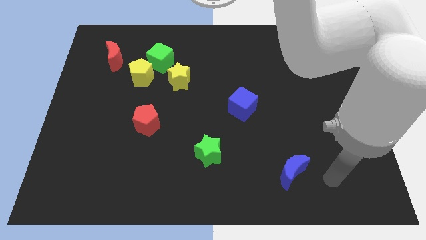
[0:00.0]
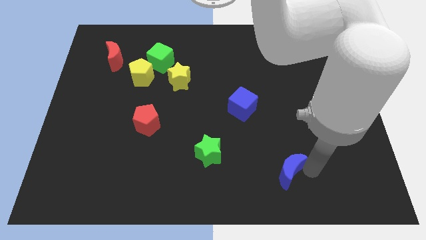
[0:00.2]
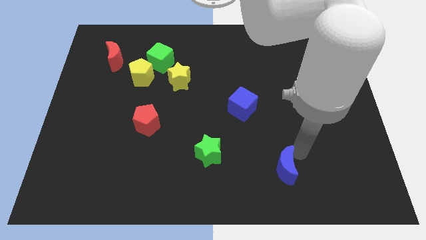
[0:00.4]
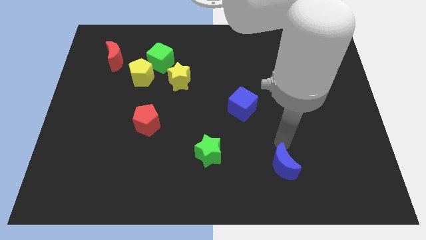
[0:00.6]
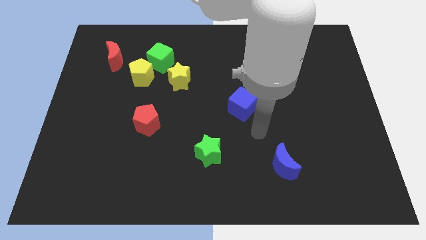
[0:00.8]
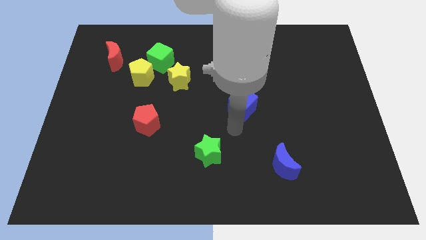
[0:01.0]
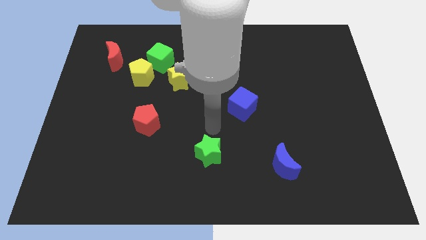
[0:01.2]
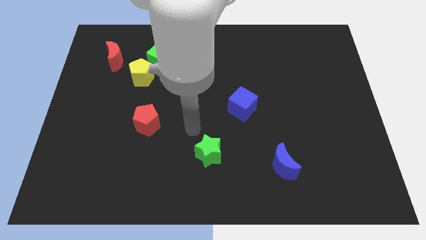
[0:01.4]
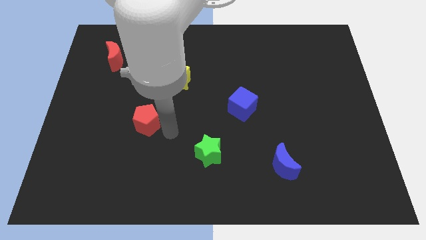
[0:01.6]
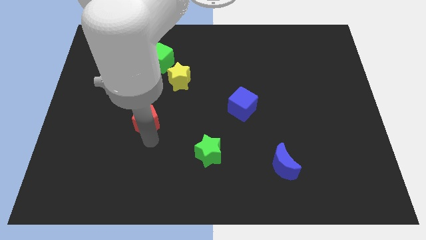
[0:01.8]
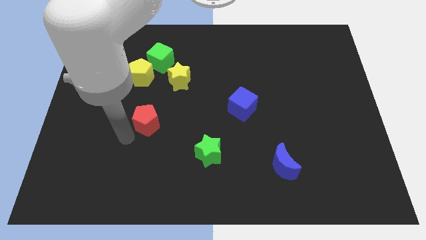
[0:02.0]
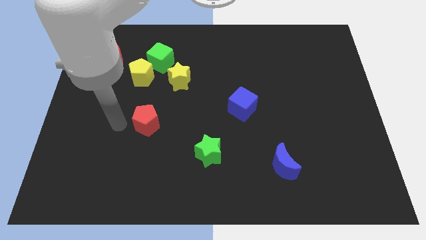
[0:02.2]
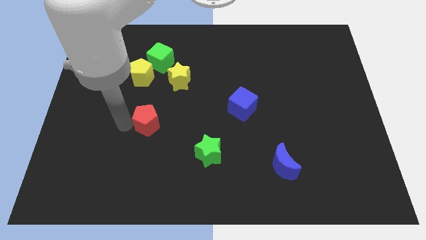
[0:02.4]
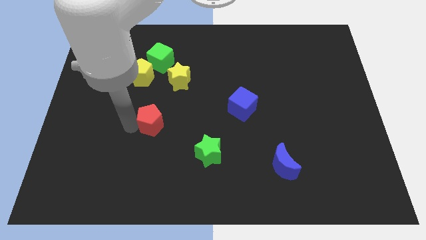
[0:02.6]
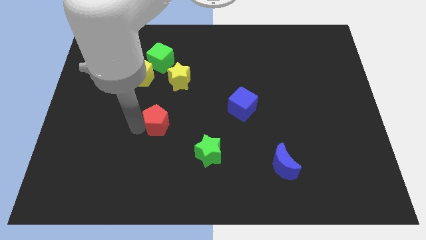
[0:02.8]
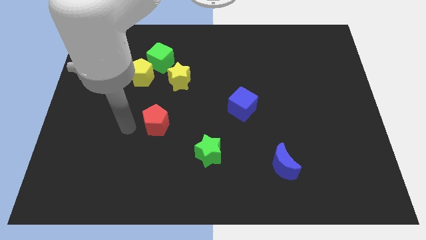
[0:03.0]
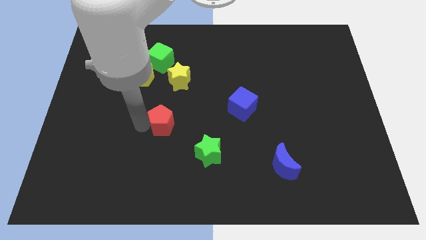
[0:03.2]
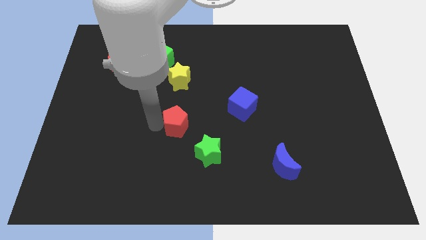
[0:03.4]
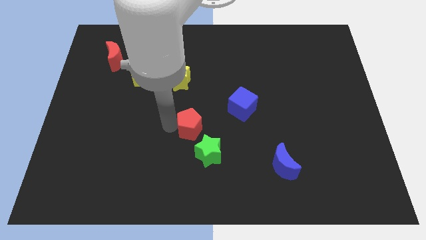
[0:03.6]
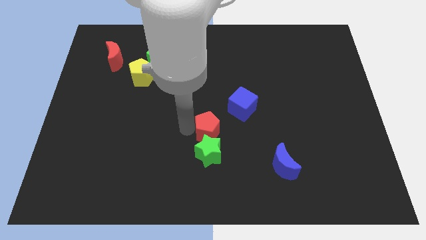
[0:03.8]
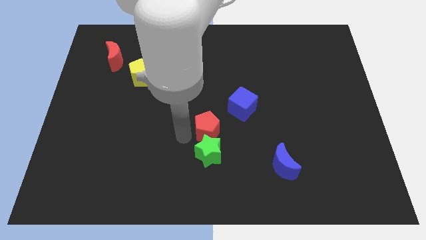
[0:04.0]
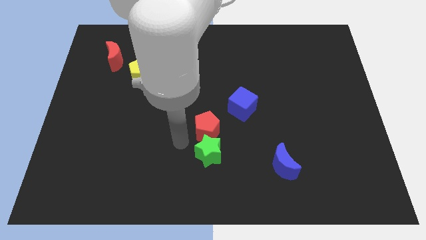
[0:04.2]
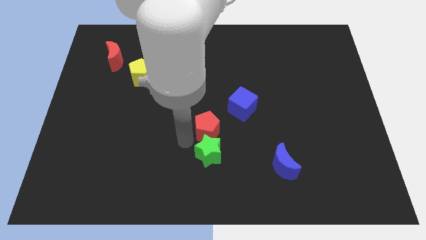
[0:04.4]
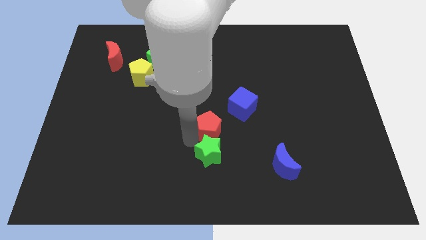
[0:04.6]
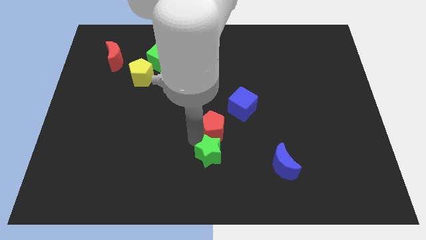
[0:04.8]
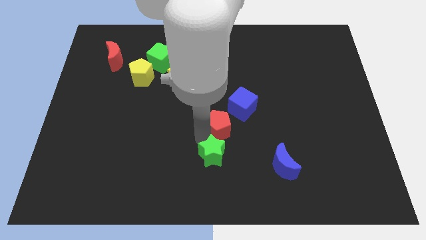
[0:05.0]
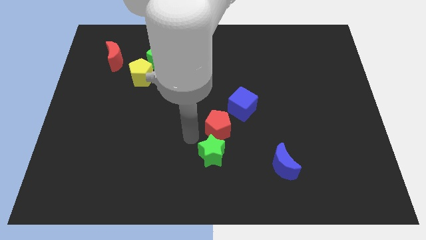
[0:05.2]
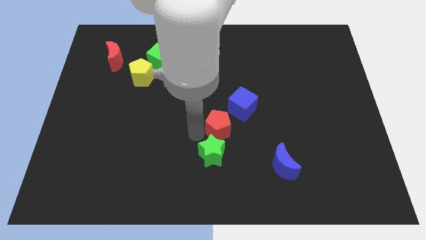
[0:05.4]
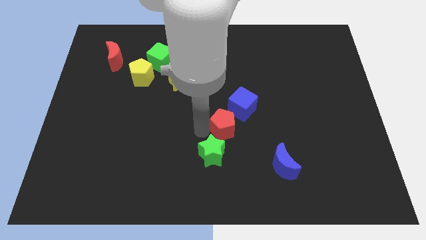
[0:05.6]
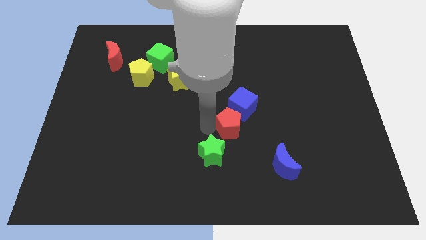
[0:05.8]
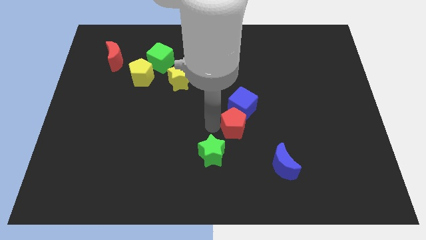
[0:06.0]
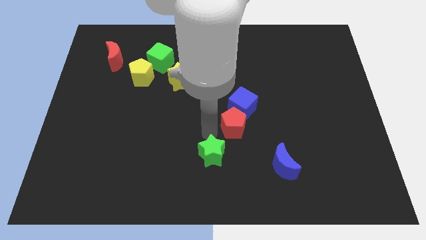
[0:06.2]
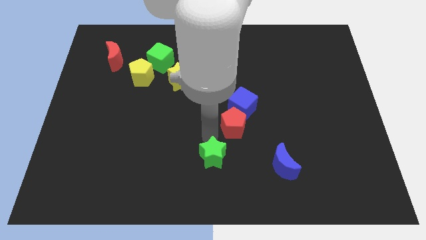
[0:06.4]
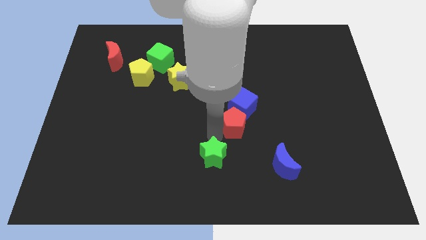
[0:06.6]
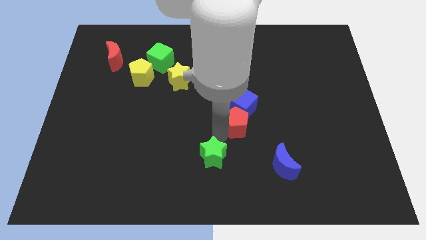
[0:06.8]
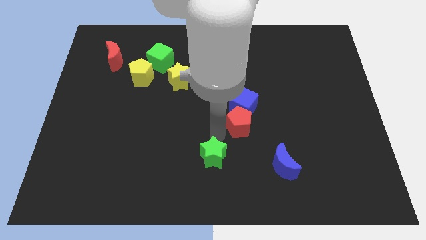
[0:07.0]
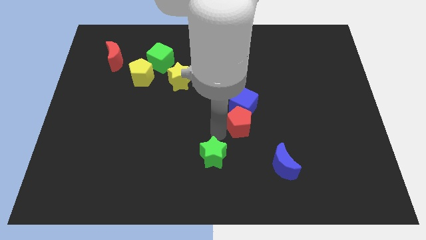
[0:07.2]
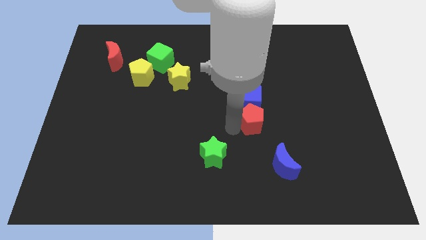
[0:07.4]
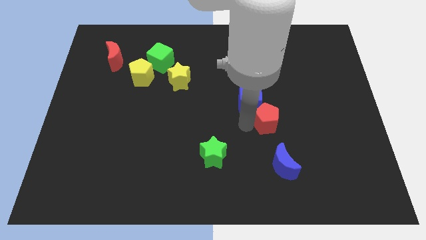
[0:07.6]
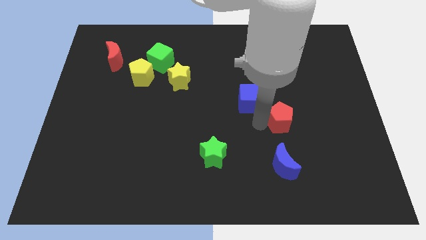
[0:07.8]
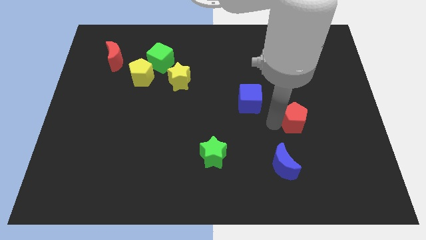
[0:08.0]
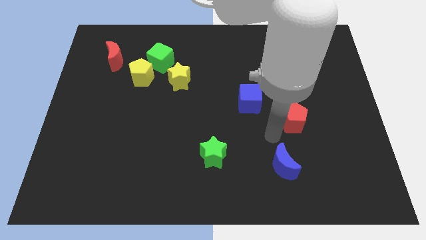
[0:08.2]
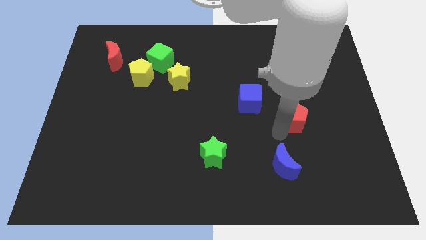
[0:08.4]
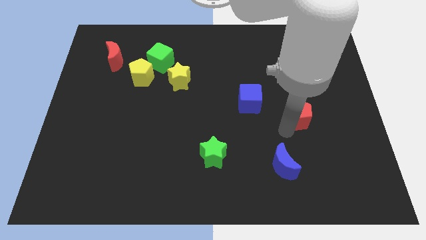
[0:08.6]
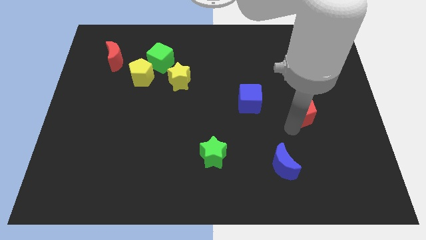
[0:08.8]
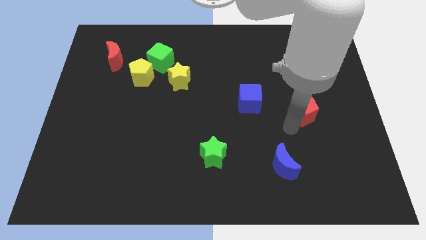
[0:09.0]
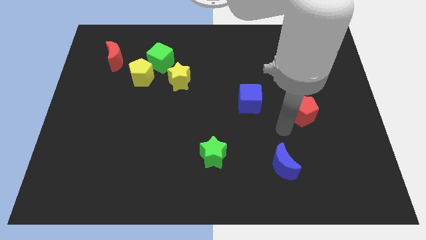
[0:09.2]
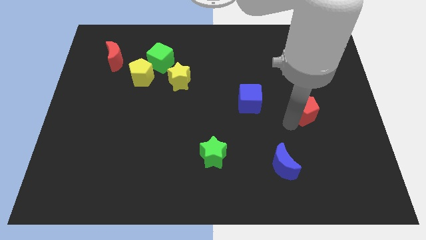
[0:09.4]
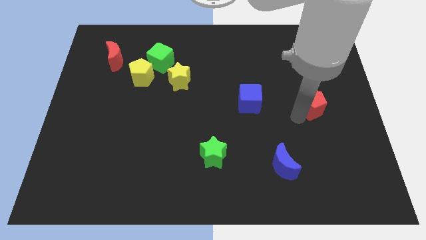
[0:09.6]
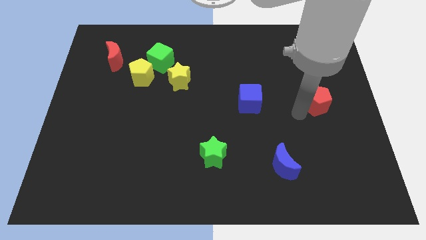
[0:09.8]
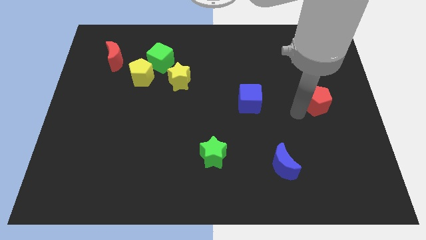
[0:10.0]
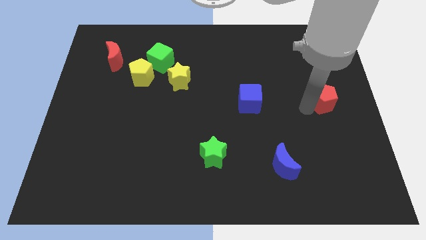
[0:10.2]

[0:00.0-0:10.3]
slide the red pentagon to the right side of the board

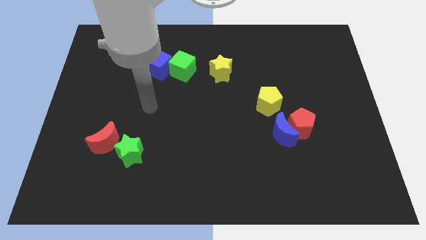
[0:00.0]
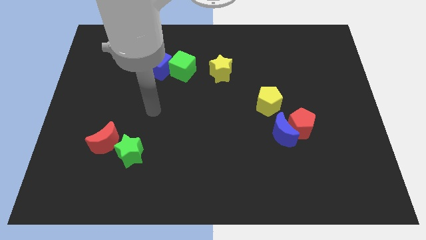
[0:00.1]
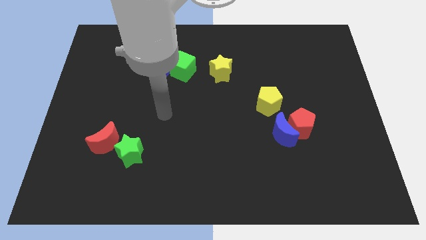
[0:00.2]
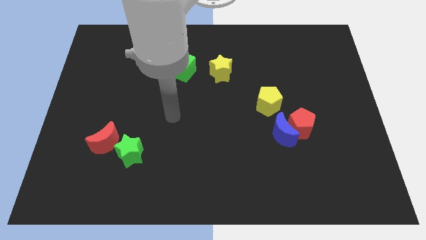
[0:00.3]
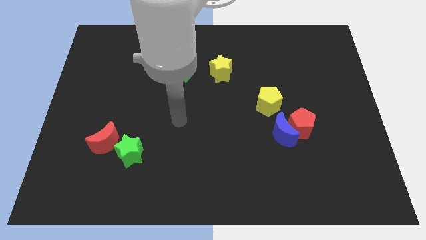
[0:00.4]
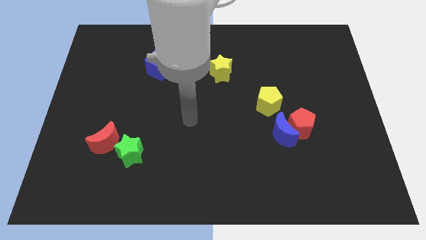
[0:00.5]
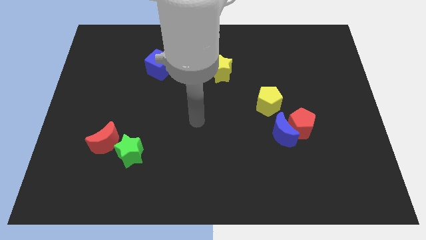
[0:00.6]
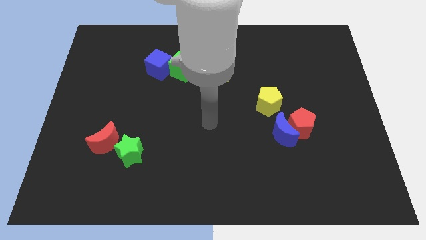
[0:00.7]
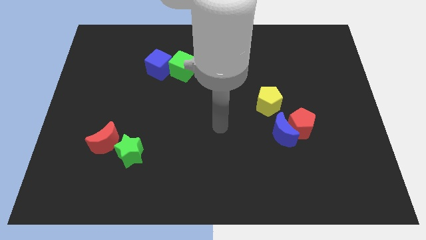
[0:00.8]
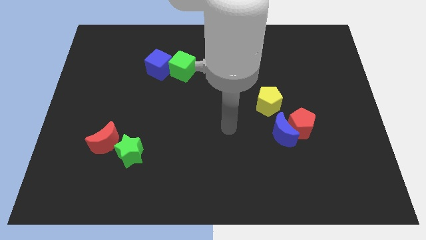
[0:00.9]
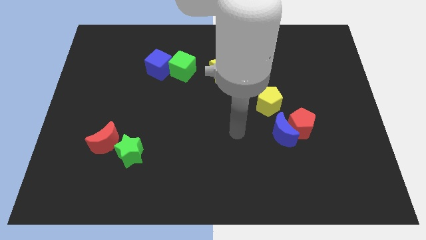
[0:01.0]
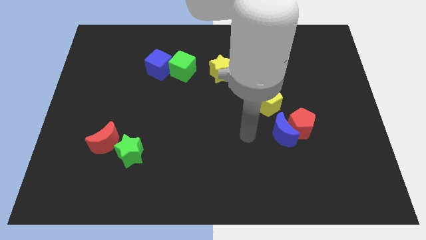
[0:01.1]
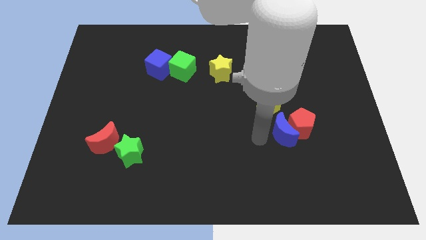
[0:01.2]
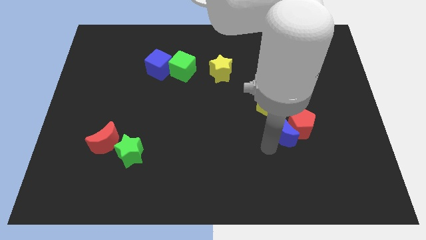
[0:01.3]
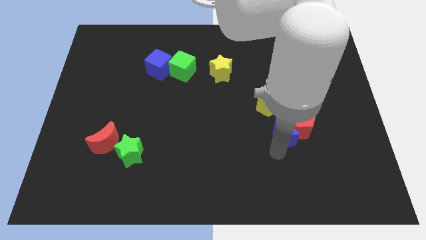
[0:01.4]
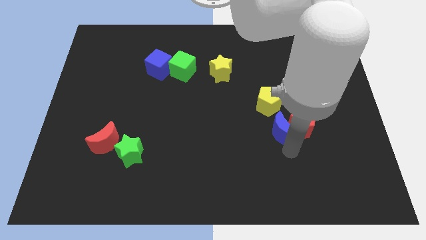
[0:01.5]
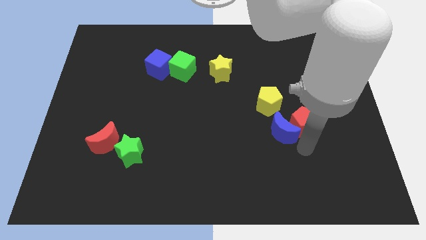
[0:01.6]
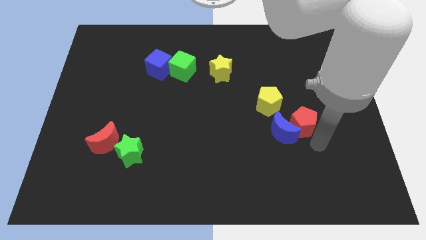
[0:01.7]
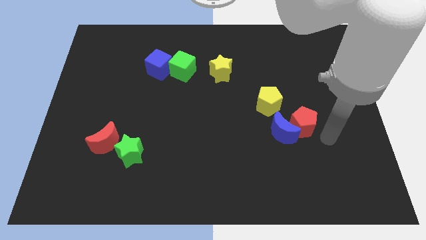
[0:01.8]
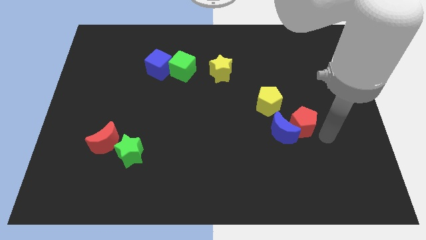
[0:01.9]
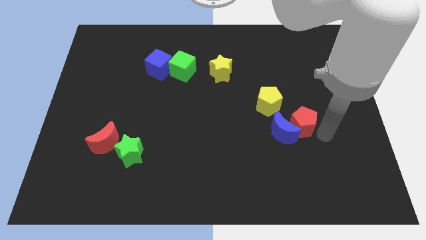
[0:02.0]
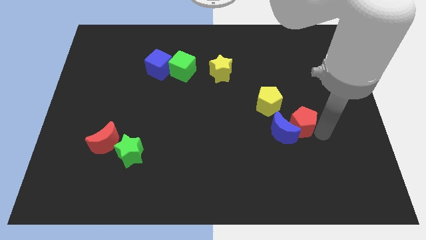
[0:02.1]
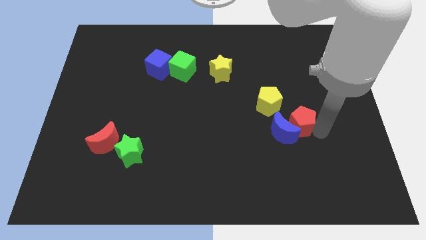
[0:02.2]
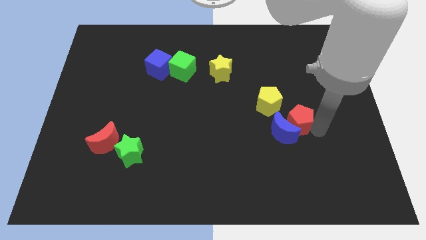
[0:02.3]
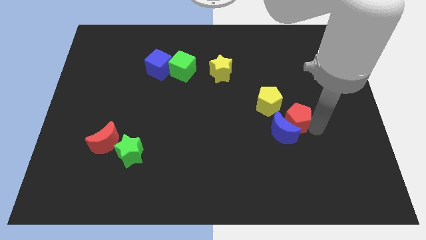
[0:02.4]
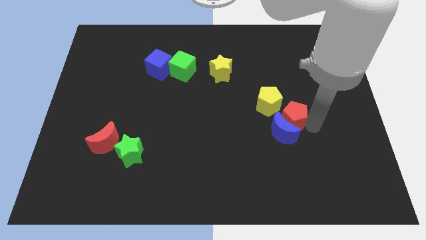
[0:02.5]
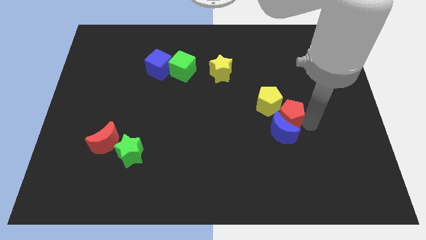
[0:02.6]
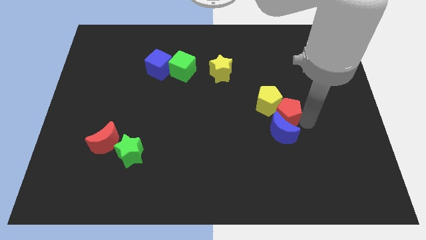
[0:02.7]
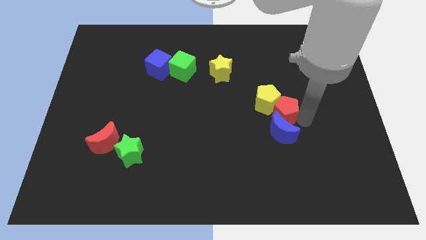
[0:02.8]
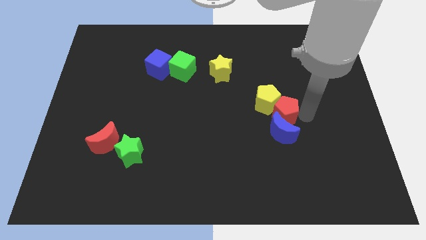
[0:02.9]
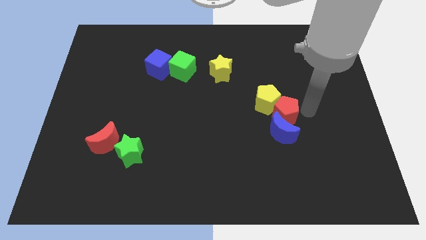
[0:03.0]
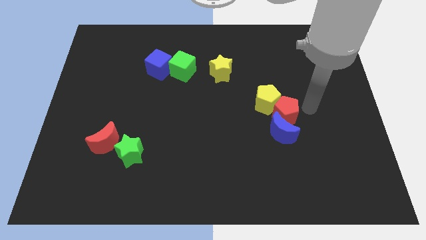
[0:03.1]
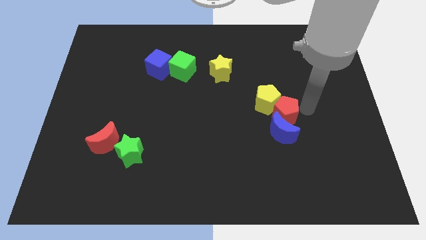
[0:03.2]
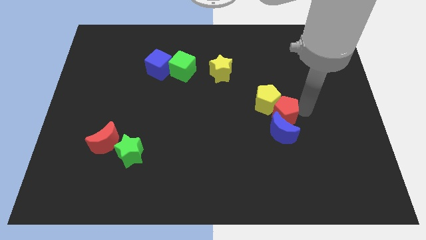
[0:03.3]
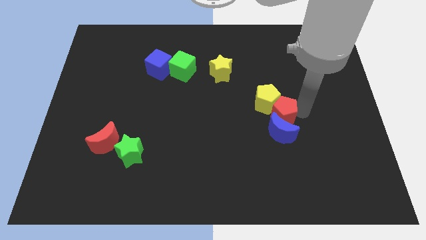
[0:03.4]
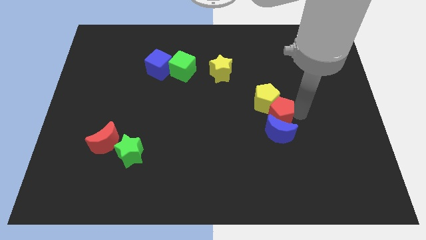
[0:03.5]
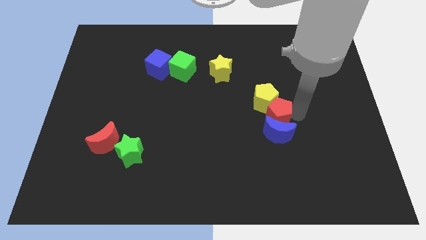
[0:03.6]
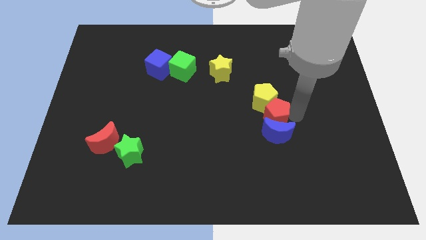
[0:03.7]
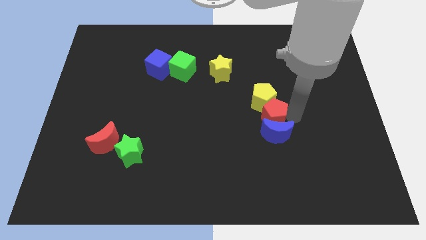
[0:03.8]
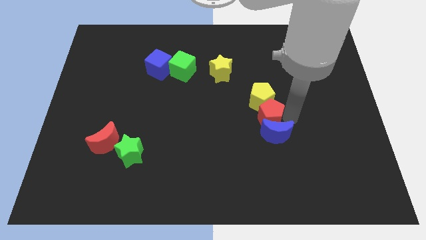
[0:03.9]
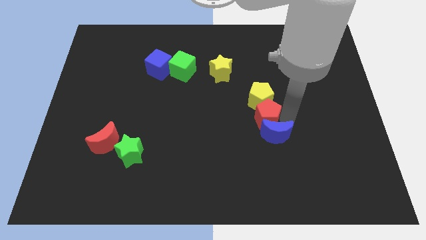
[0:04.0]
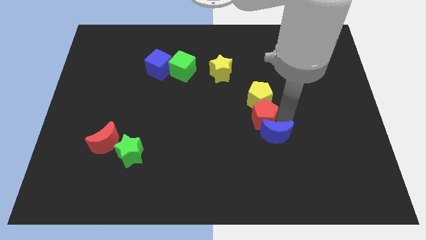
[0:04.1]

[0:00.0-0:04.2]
move the red pentagon to the middle of the board
